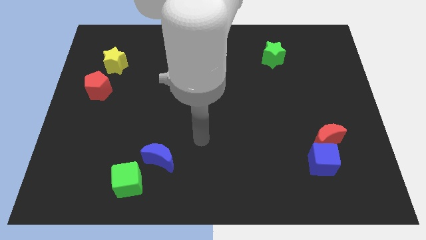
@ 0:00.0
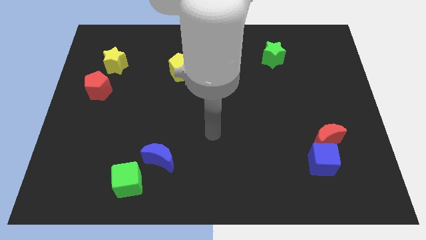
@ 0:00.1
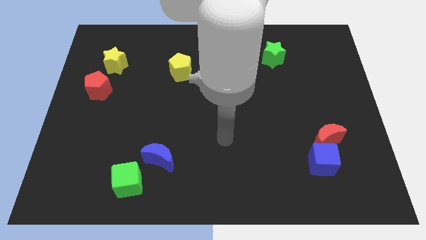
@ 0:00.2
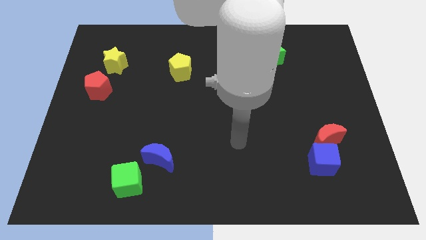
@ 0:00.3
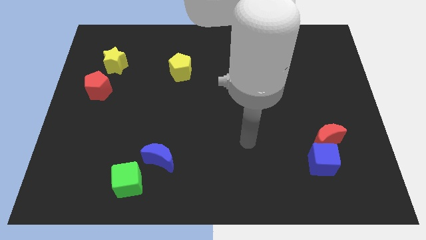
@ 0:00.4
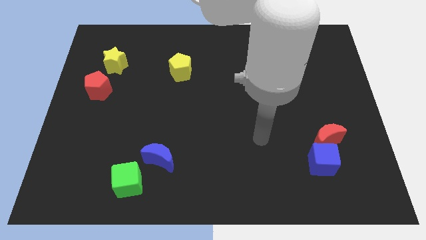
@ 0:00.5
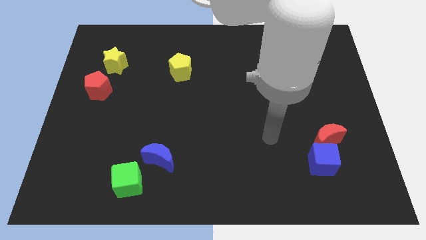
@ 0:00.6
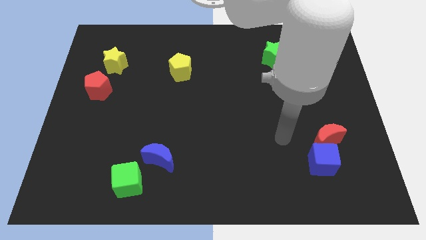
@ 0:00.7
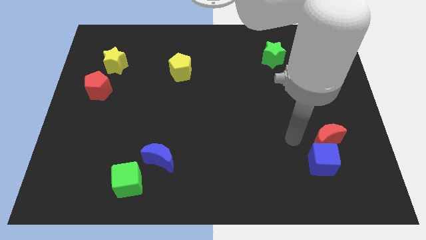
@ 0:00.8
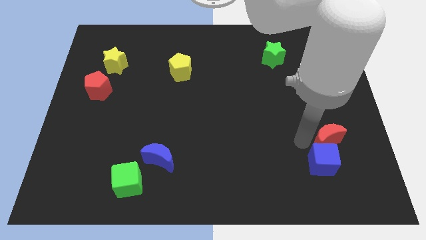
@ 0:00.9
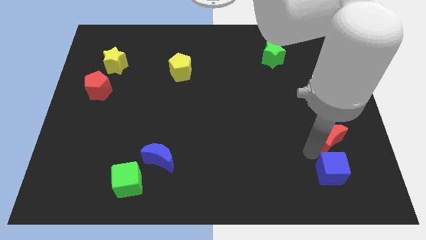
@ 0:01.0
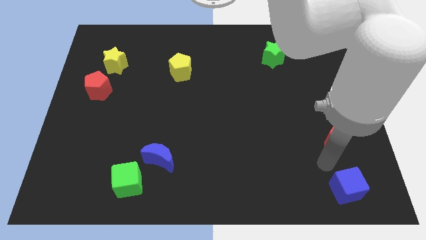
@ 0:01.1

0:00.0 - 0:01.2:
move the red moon away from the blue cube

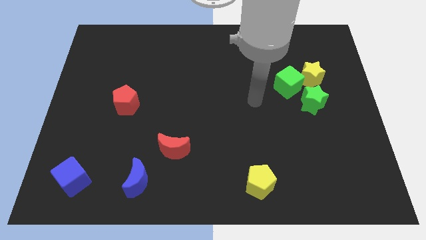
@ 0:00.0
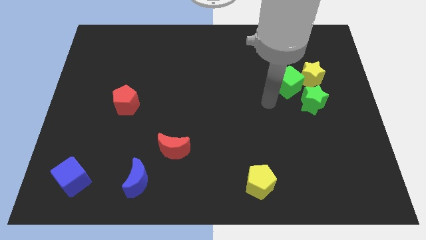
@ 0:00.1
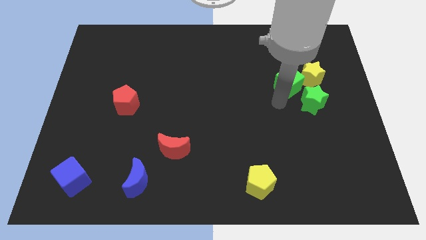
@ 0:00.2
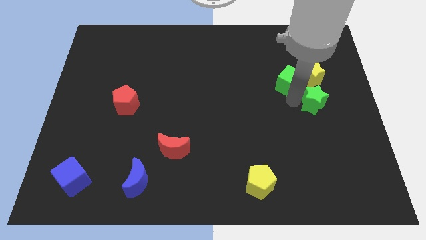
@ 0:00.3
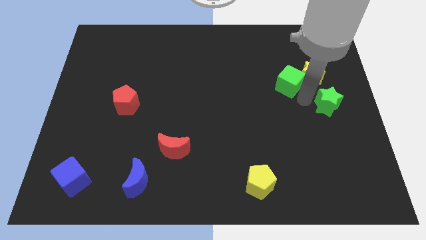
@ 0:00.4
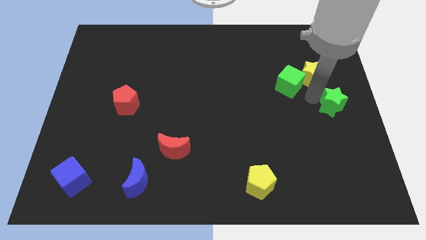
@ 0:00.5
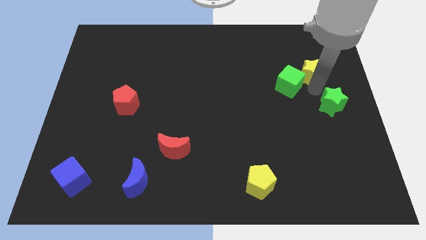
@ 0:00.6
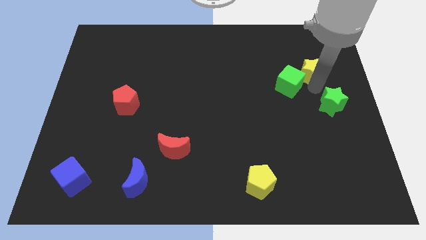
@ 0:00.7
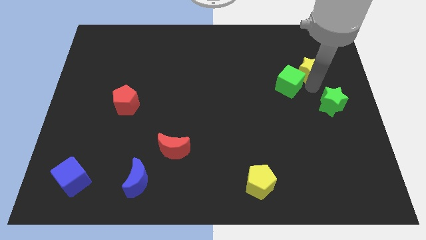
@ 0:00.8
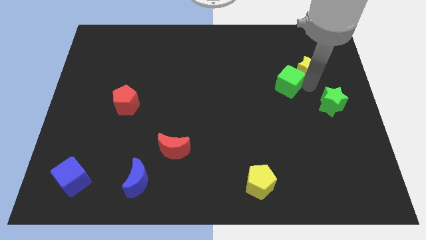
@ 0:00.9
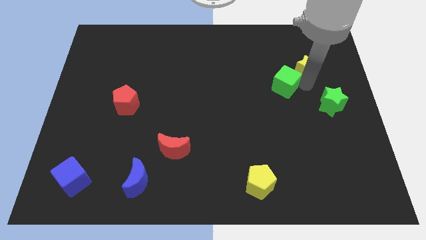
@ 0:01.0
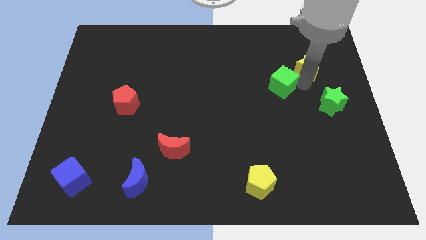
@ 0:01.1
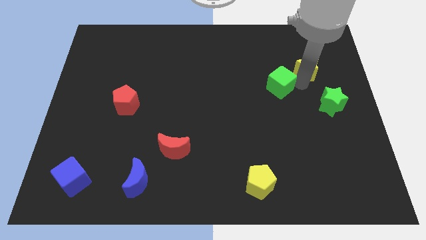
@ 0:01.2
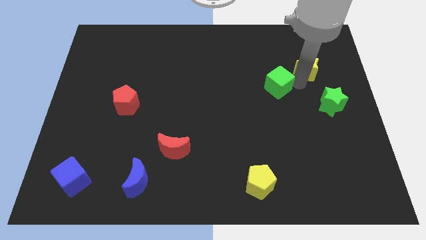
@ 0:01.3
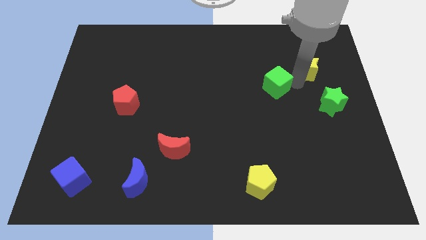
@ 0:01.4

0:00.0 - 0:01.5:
pull the green cube apart from the yellow star and green star

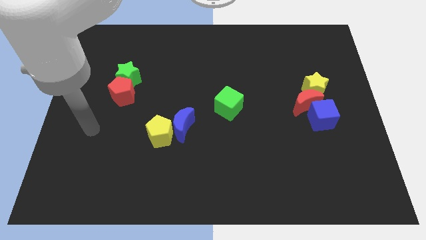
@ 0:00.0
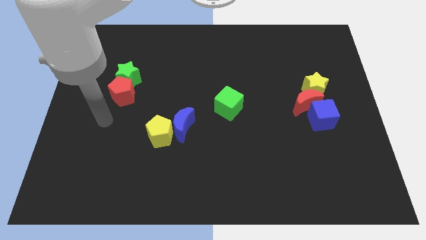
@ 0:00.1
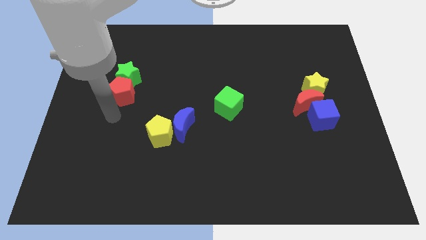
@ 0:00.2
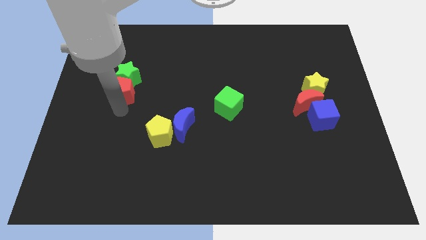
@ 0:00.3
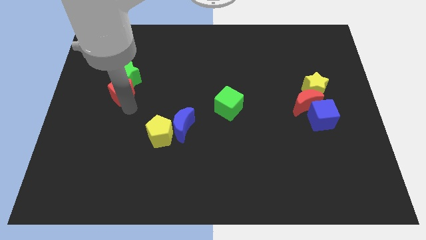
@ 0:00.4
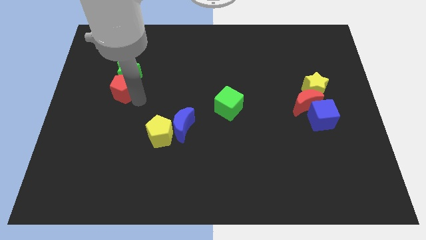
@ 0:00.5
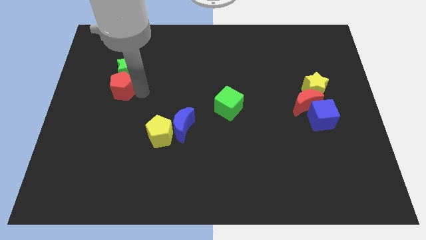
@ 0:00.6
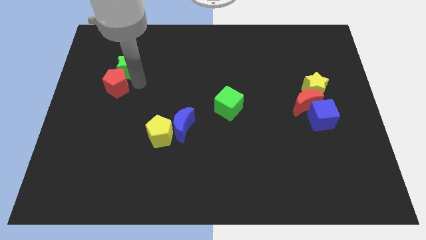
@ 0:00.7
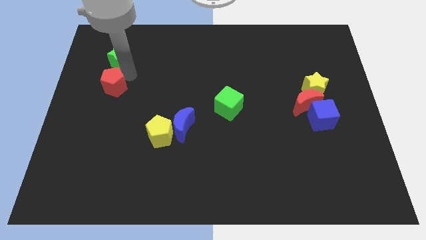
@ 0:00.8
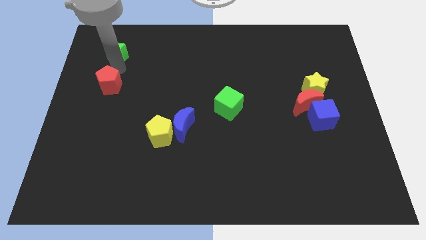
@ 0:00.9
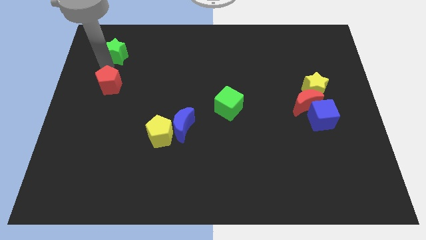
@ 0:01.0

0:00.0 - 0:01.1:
pull the red pentagon apart from the green star

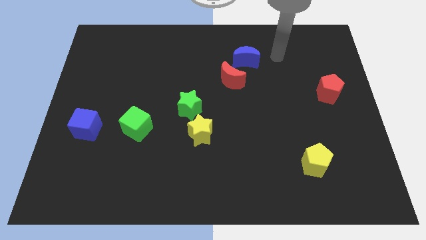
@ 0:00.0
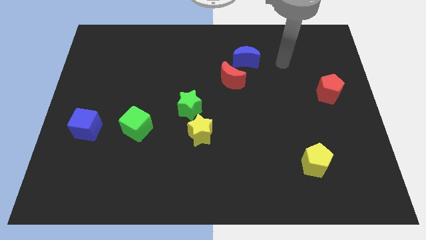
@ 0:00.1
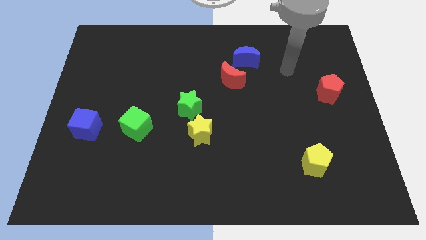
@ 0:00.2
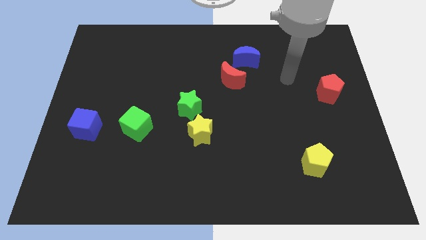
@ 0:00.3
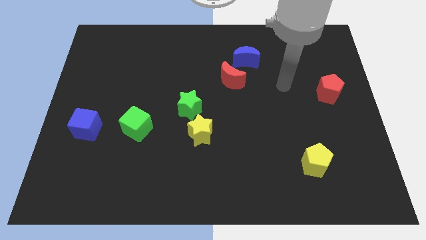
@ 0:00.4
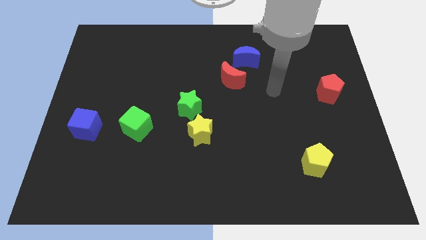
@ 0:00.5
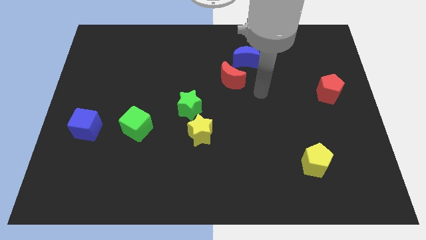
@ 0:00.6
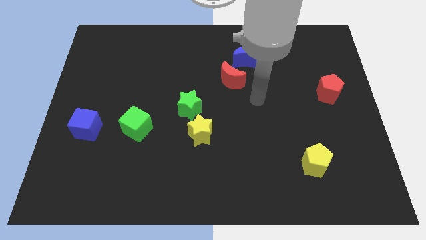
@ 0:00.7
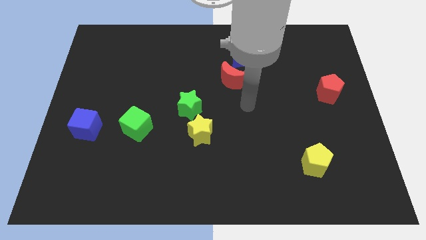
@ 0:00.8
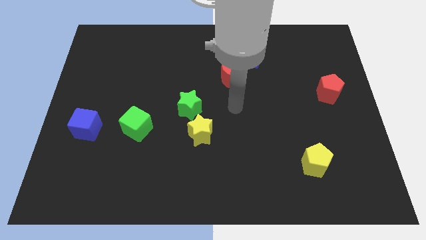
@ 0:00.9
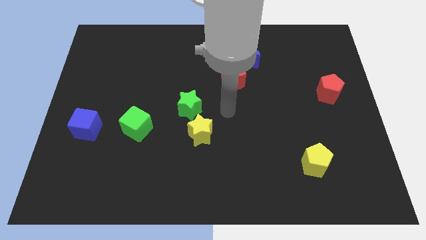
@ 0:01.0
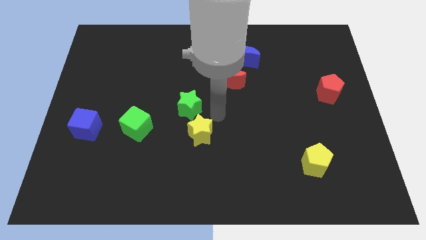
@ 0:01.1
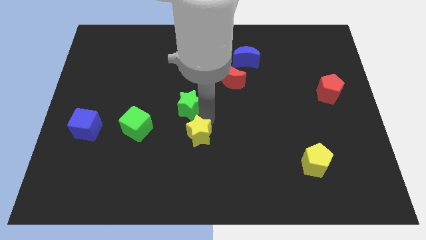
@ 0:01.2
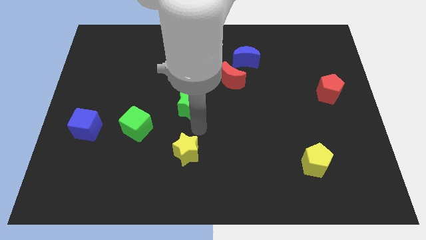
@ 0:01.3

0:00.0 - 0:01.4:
separate the green star from the yellow star

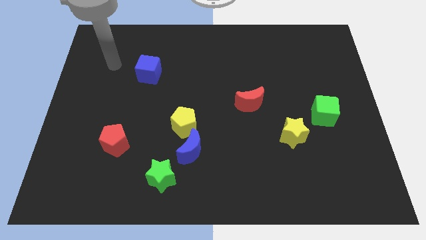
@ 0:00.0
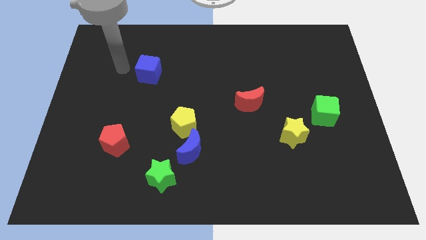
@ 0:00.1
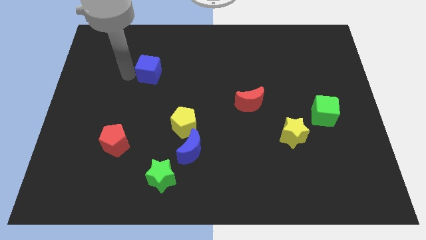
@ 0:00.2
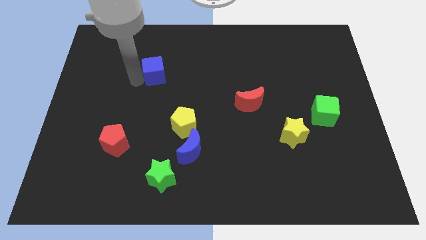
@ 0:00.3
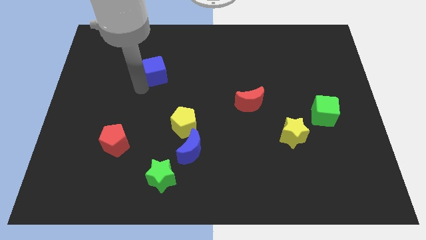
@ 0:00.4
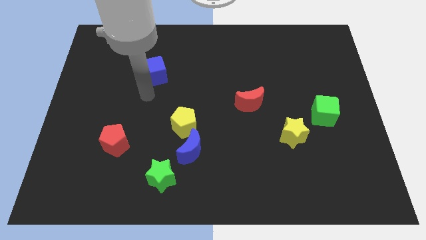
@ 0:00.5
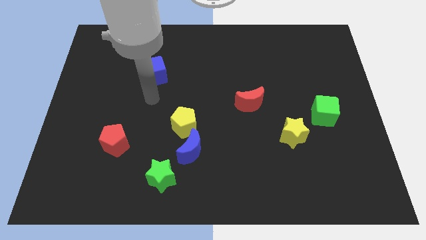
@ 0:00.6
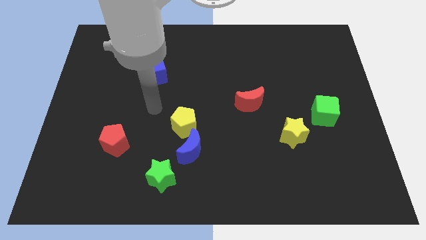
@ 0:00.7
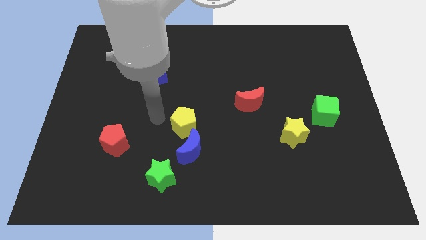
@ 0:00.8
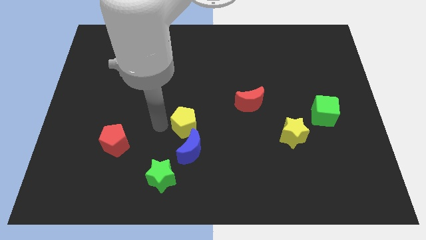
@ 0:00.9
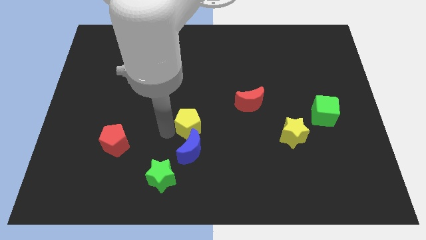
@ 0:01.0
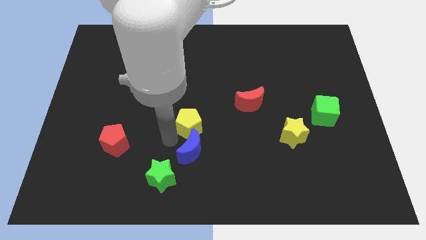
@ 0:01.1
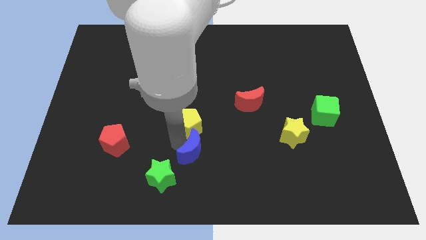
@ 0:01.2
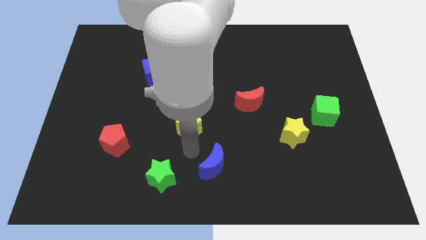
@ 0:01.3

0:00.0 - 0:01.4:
pull the yellow pentagon apart from the blue moon

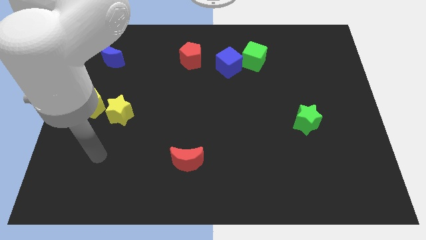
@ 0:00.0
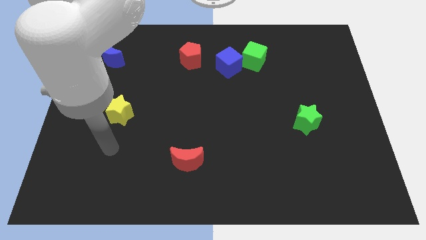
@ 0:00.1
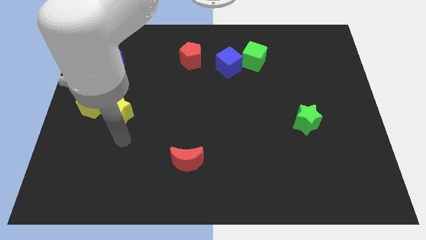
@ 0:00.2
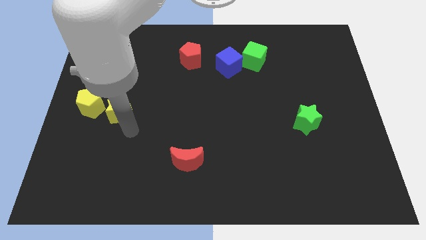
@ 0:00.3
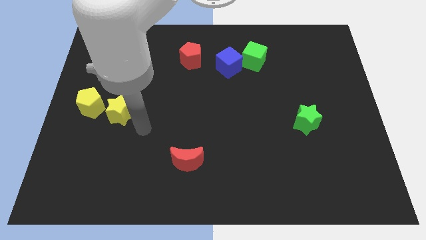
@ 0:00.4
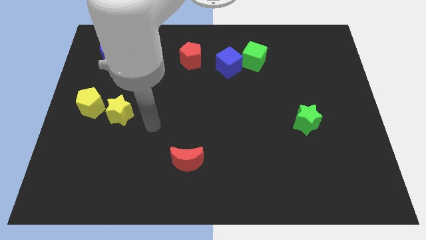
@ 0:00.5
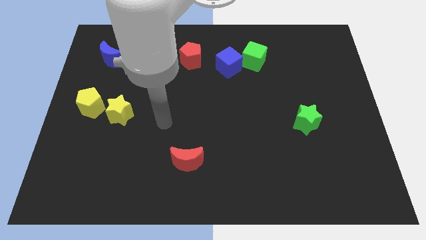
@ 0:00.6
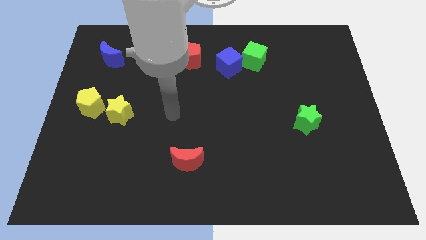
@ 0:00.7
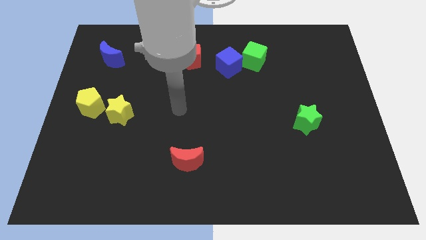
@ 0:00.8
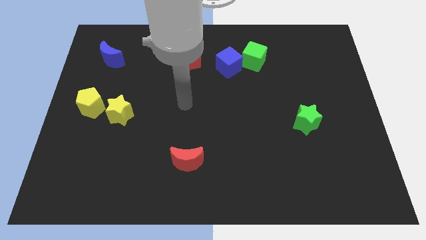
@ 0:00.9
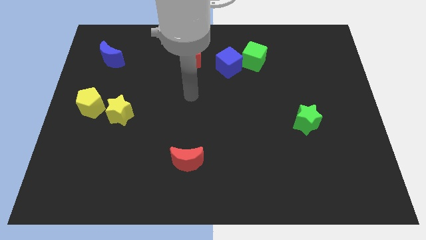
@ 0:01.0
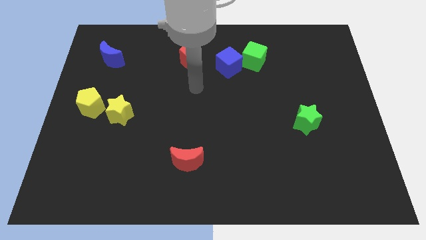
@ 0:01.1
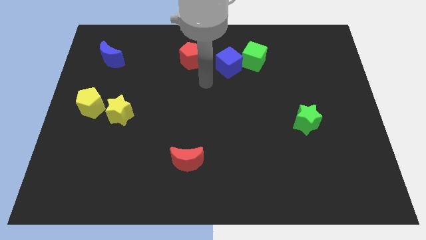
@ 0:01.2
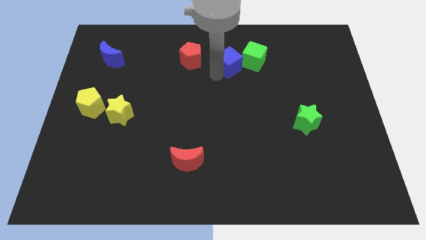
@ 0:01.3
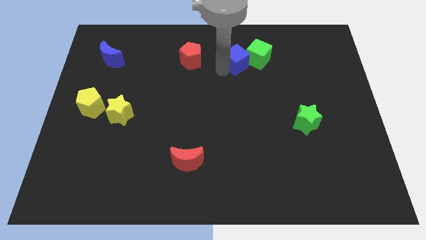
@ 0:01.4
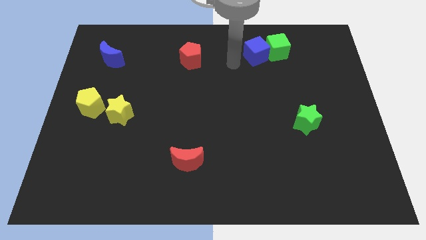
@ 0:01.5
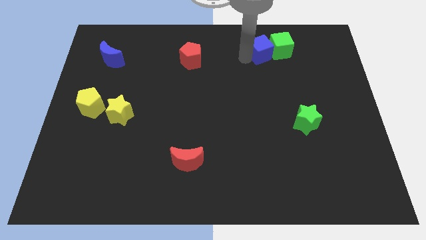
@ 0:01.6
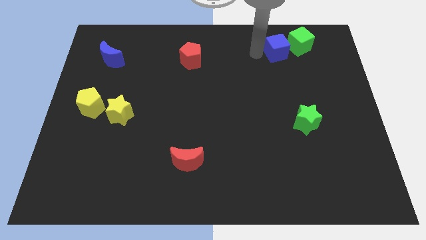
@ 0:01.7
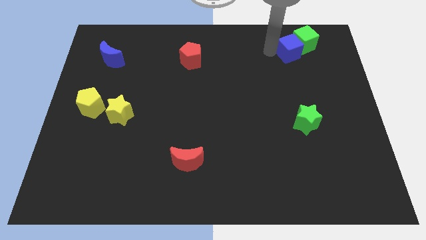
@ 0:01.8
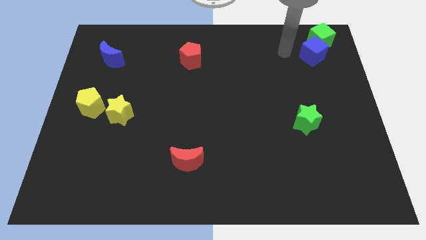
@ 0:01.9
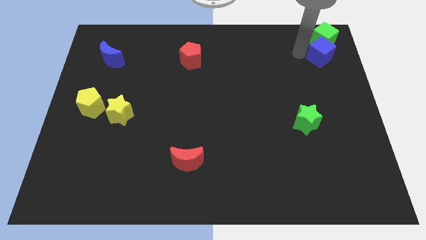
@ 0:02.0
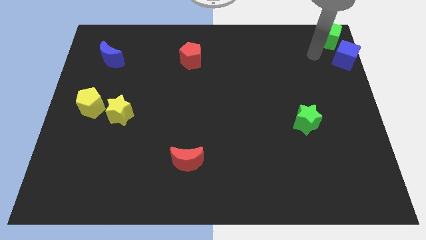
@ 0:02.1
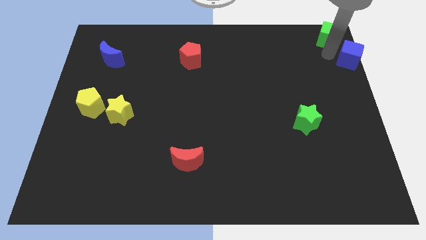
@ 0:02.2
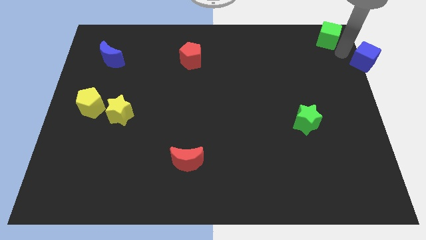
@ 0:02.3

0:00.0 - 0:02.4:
pull the green cube apart from the blue cube

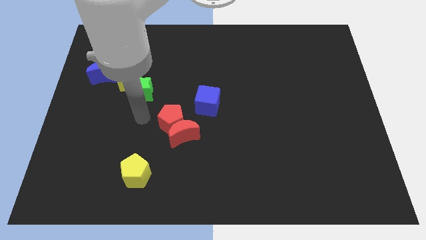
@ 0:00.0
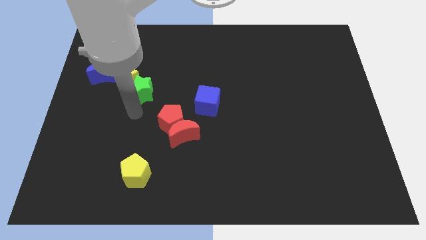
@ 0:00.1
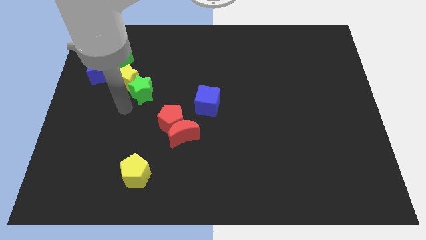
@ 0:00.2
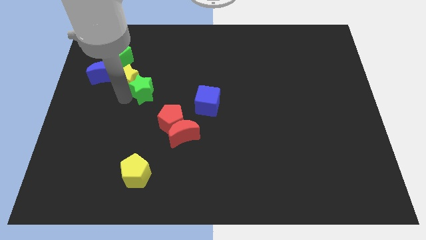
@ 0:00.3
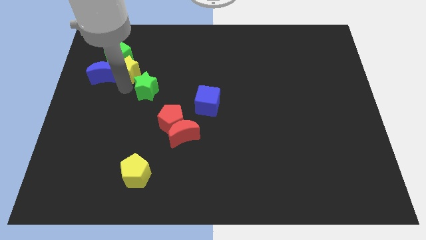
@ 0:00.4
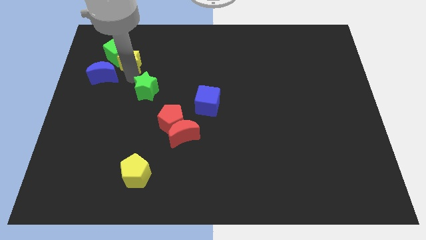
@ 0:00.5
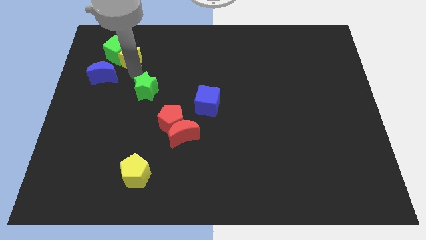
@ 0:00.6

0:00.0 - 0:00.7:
move the green star away from the yellow star
